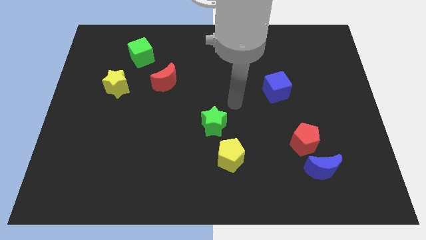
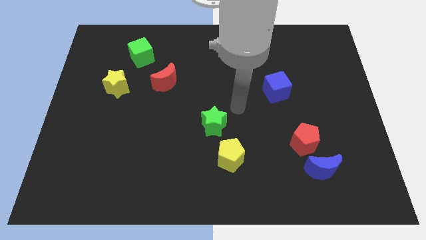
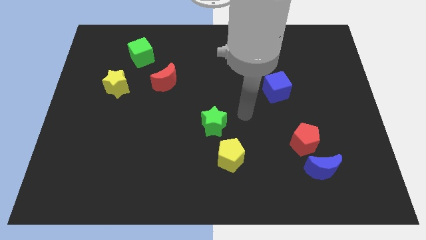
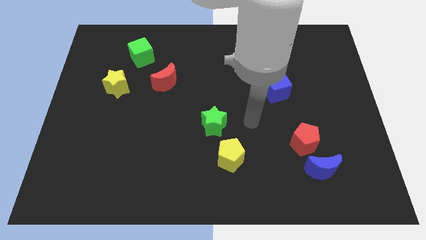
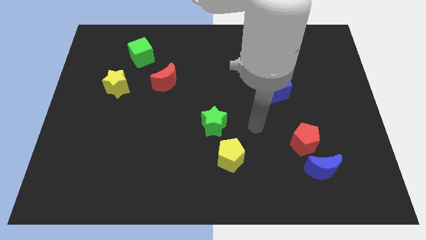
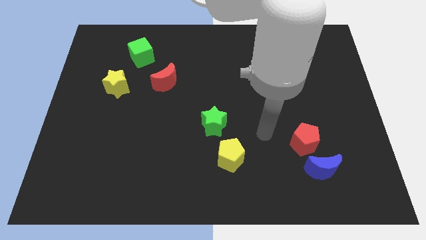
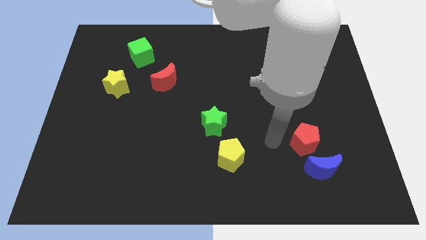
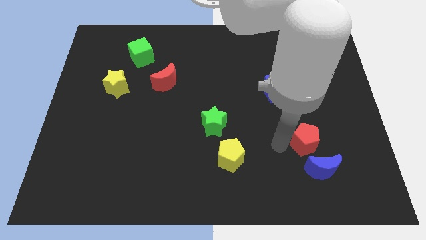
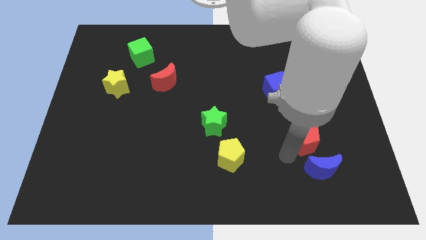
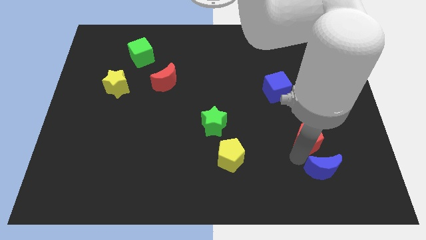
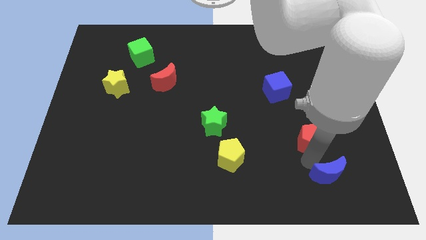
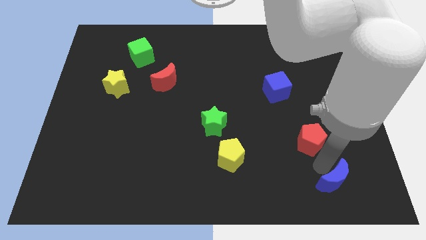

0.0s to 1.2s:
separate the red pentagon from the blue moon

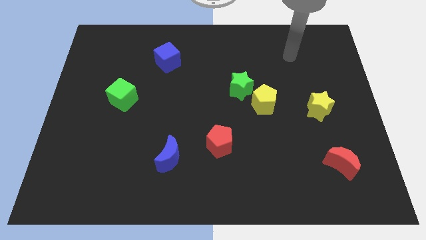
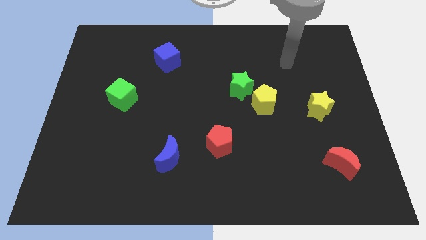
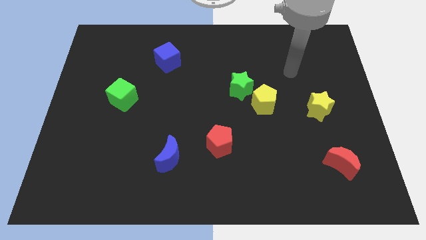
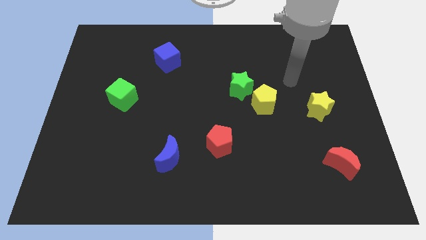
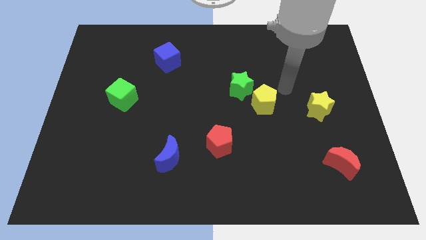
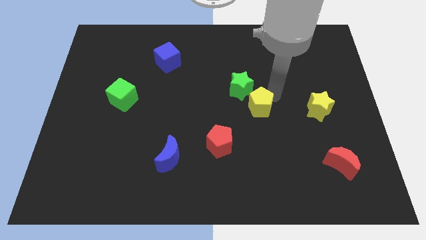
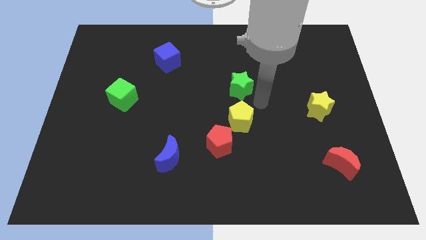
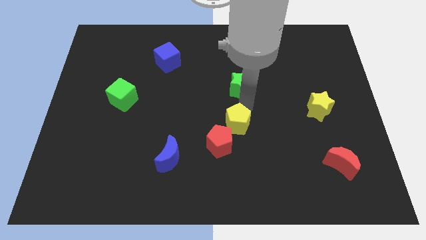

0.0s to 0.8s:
move the green star away from the yellow pentagon

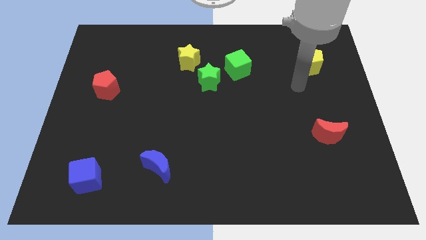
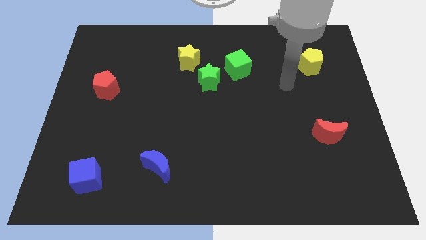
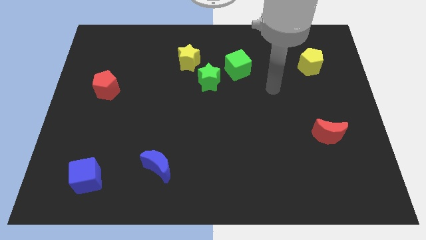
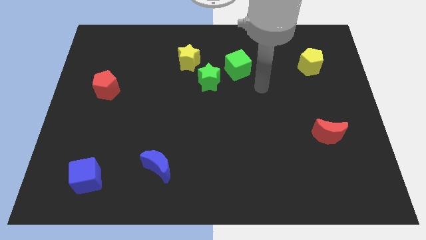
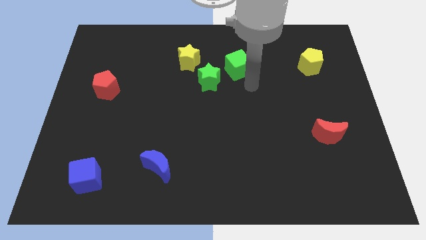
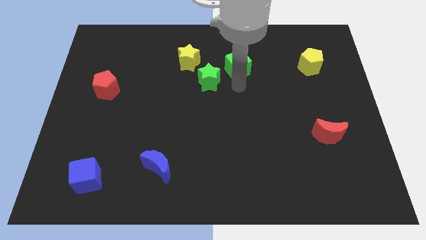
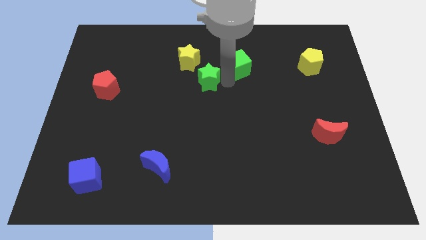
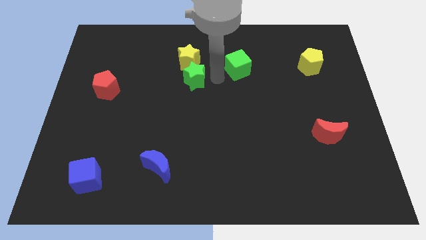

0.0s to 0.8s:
move the green cube away from the green star

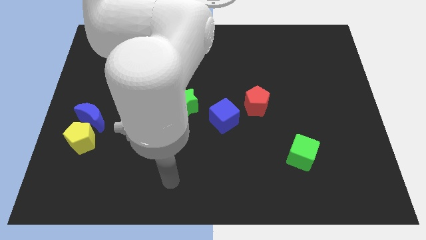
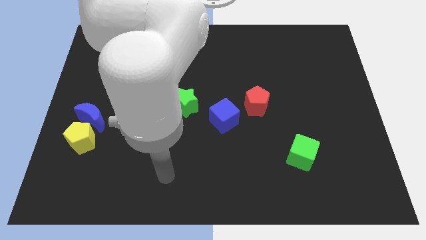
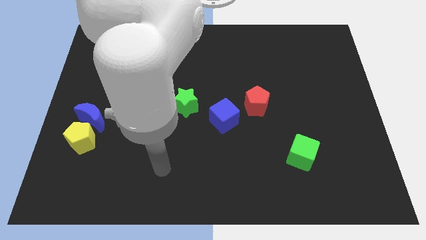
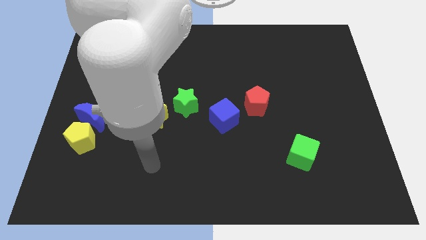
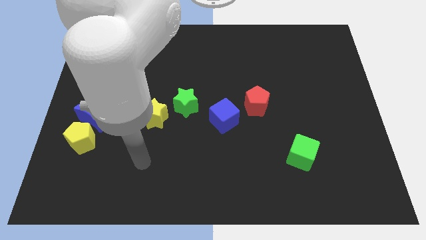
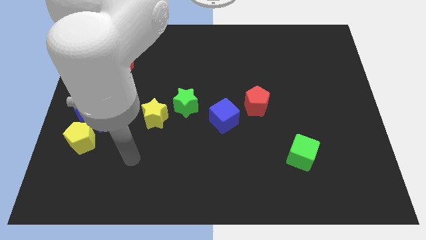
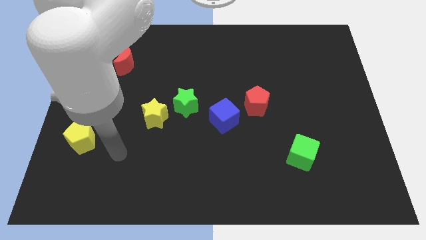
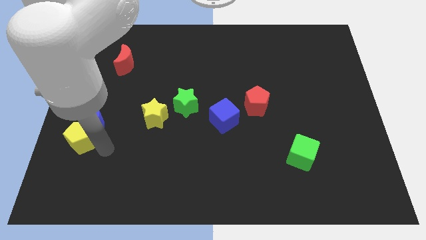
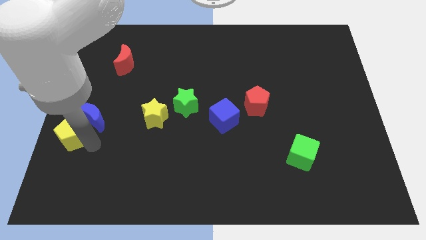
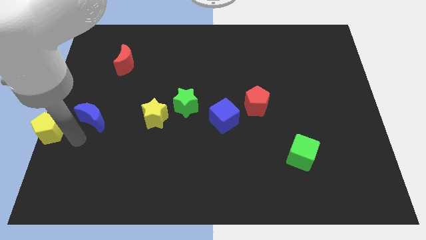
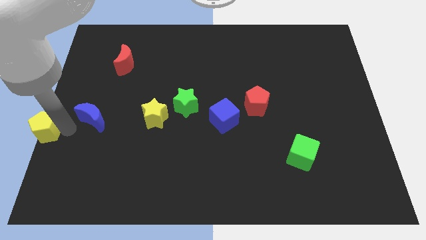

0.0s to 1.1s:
separate the blue moon from the yellow pentagon

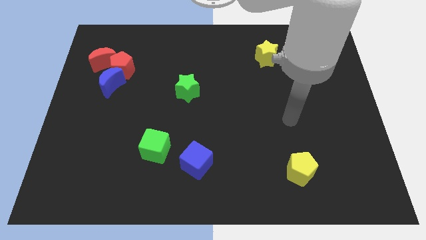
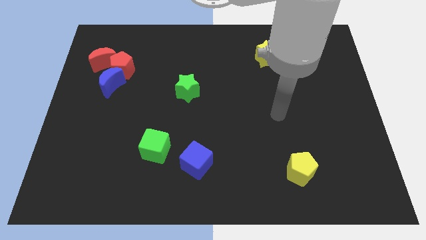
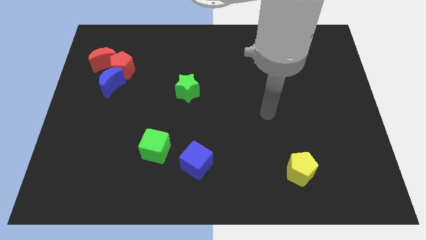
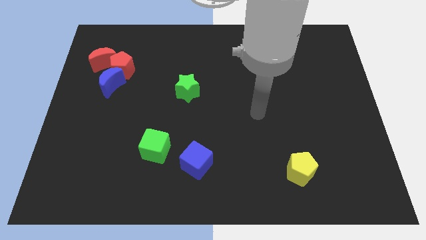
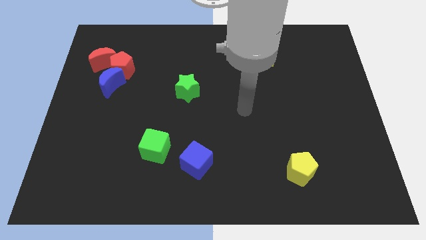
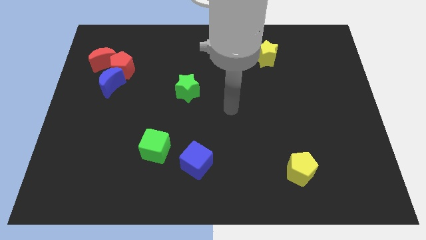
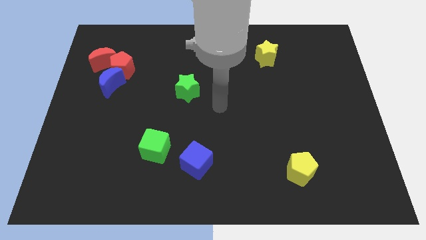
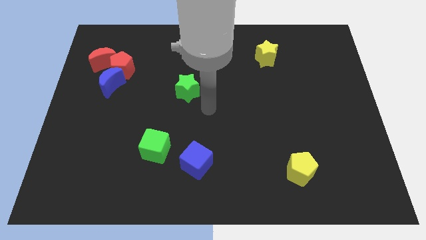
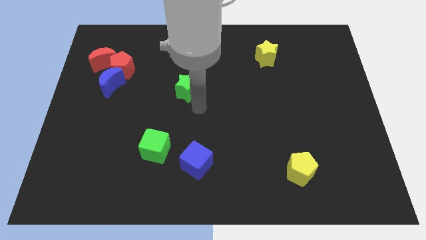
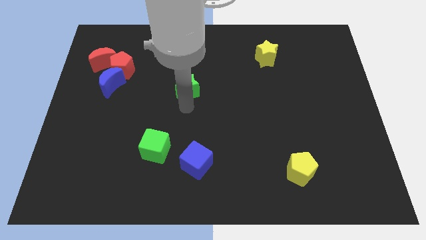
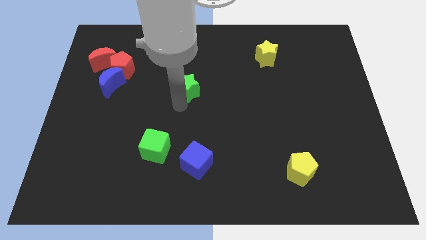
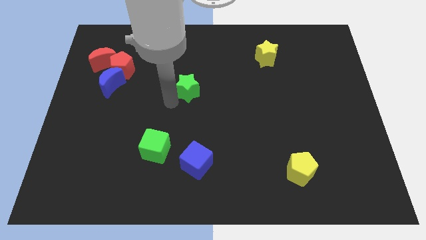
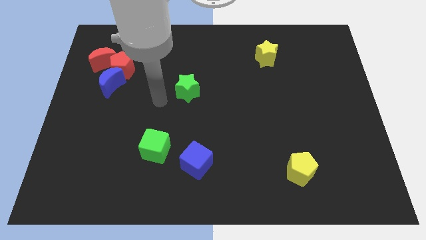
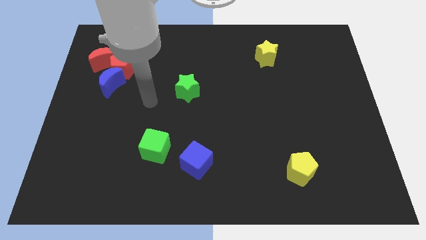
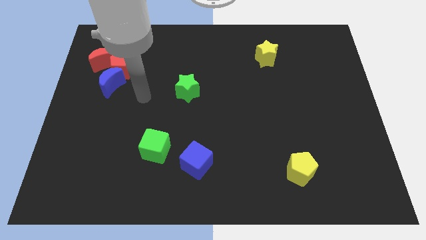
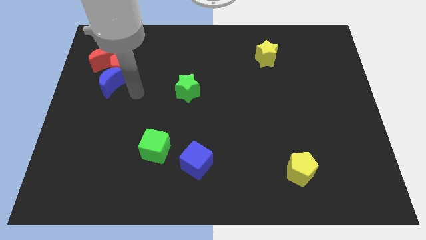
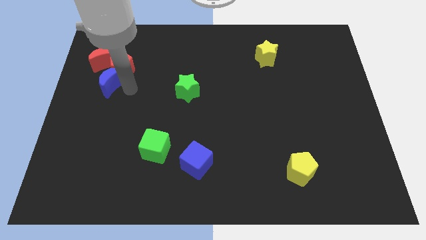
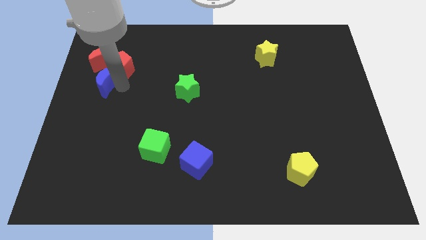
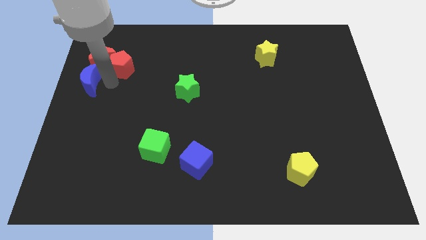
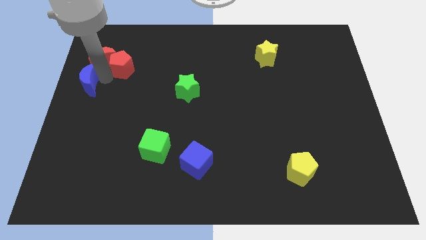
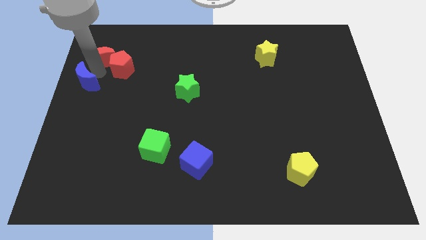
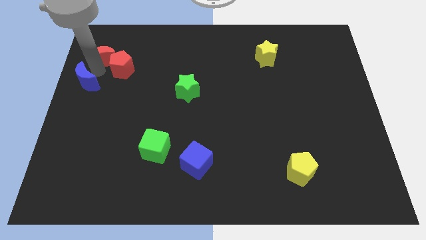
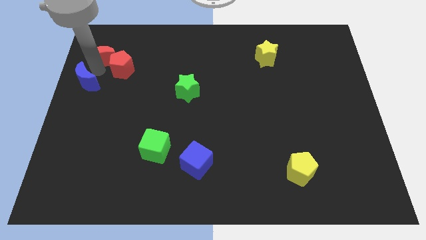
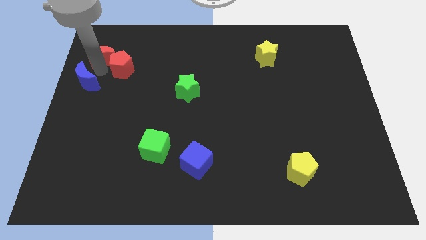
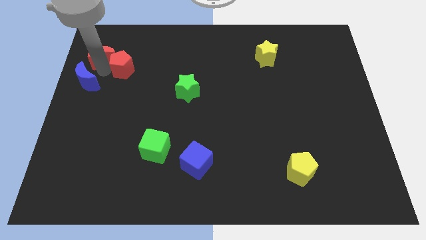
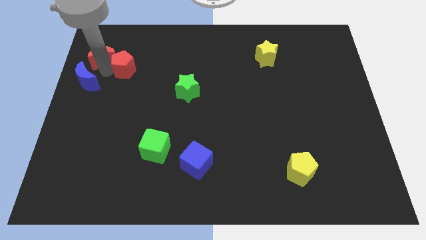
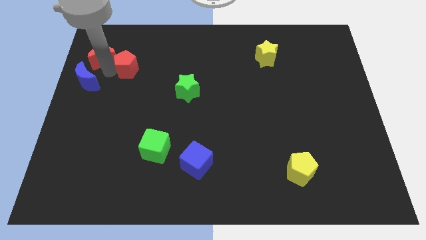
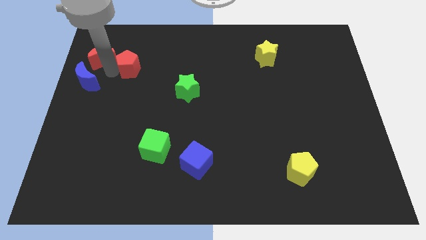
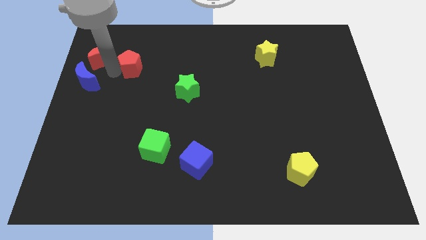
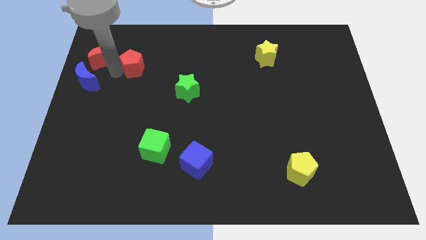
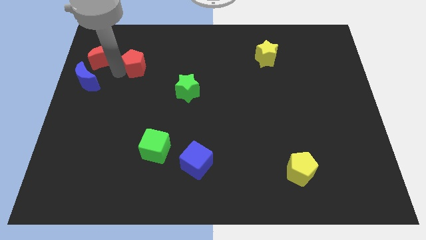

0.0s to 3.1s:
pull the red pentagon apart from the blue moon and red moon

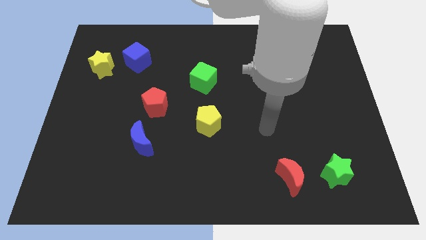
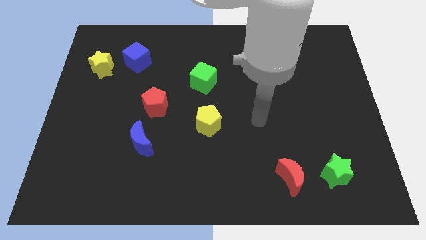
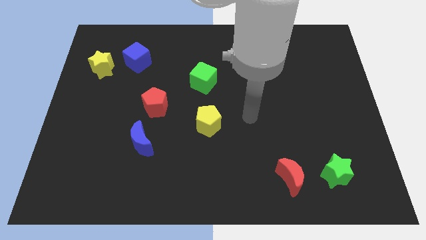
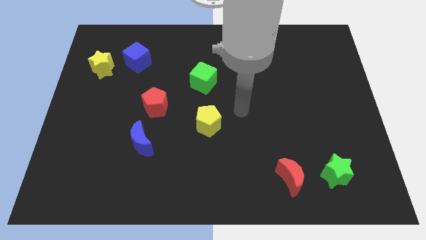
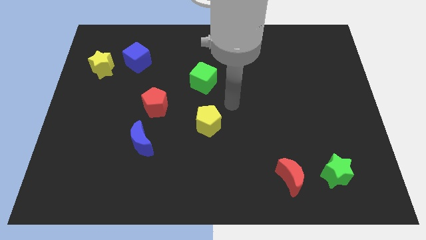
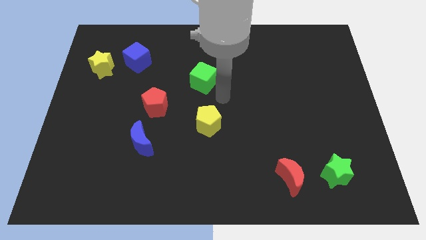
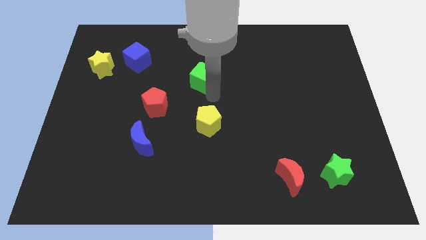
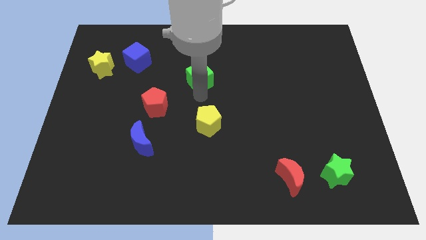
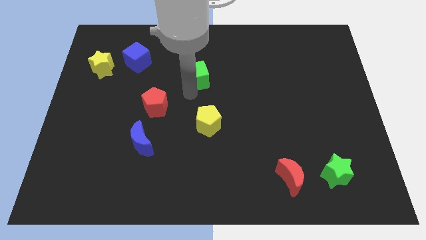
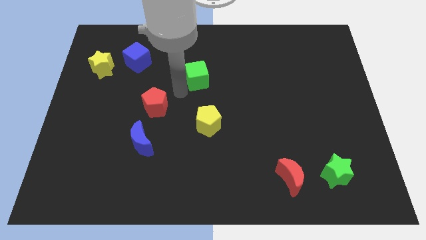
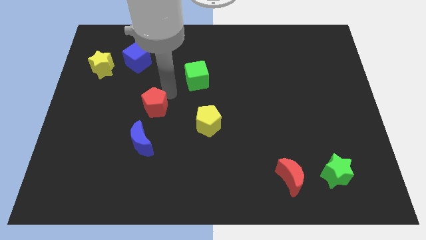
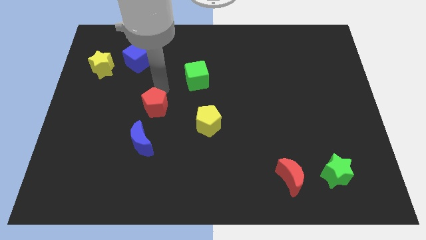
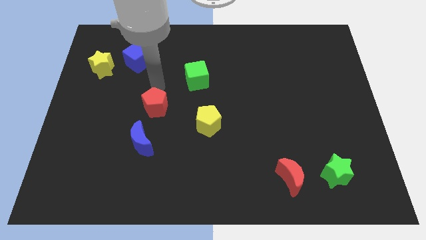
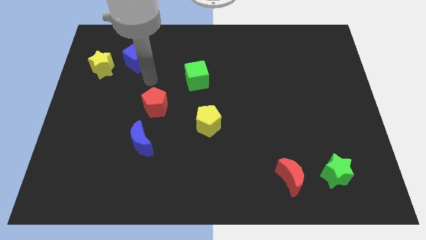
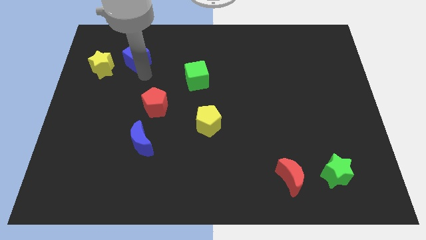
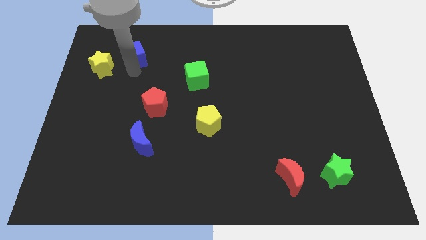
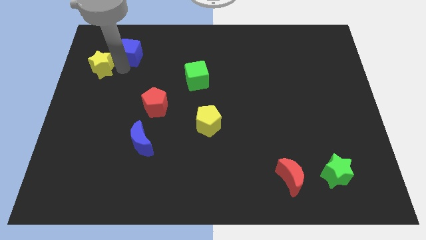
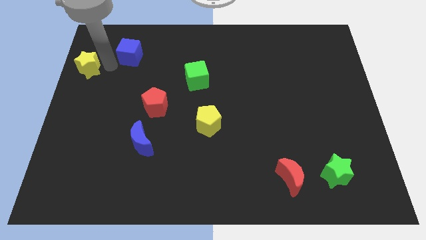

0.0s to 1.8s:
move the blue cube away from the yellow star

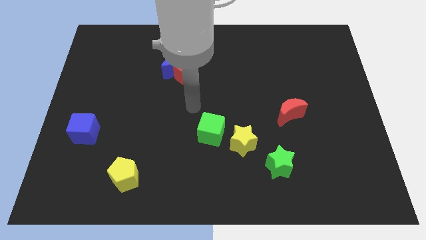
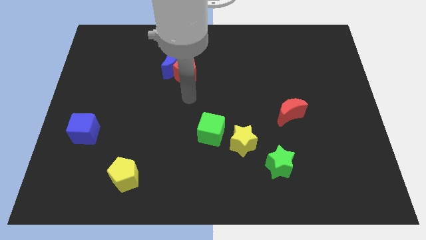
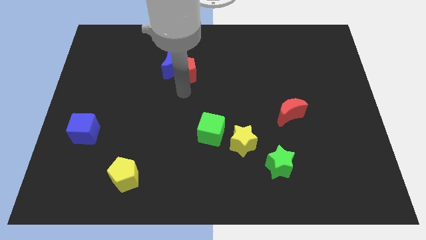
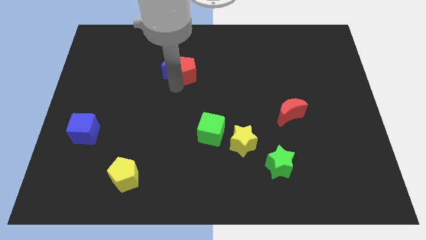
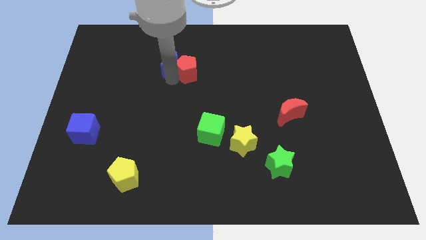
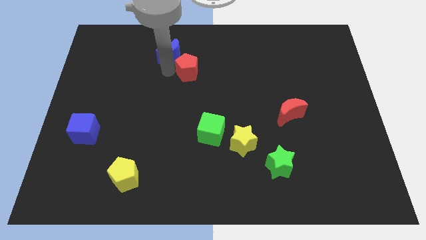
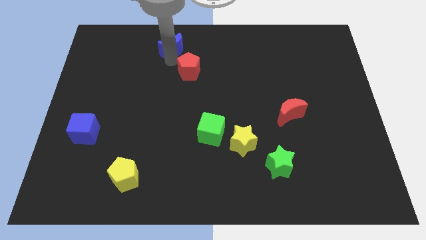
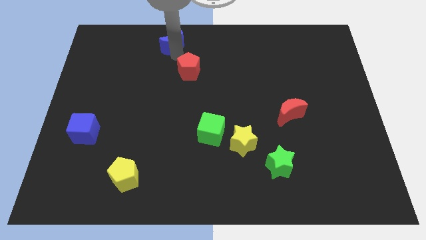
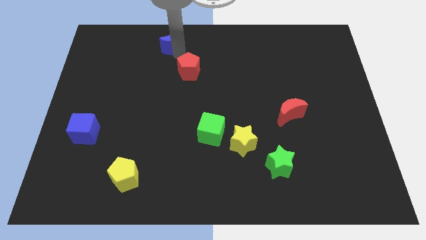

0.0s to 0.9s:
move the red pentagon away from the blue moon
